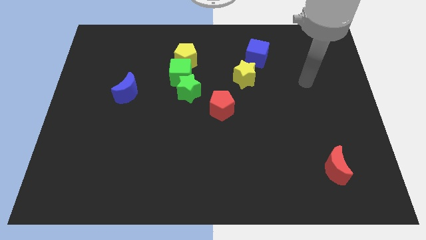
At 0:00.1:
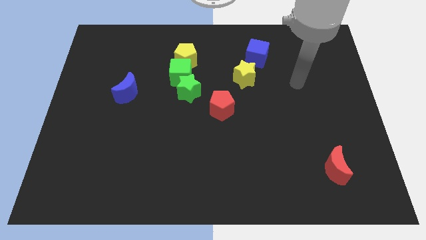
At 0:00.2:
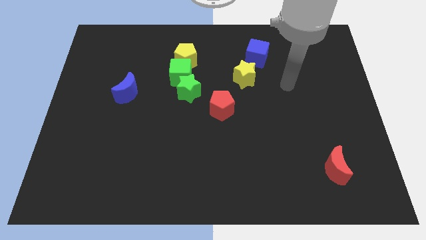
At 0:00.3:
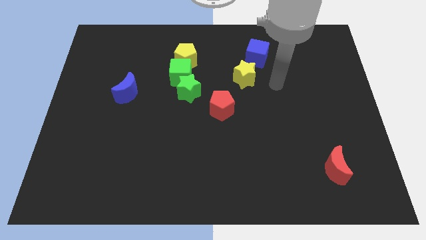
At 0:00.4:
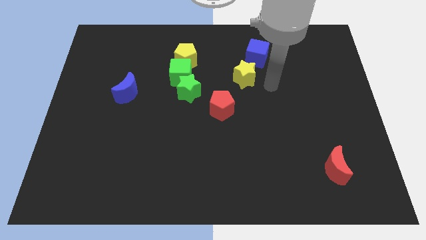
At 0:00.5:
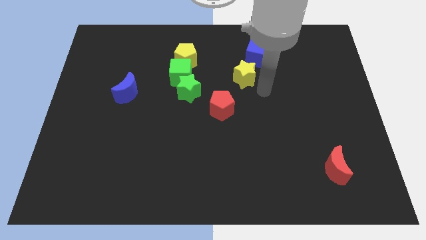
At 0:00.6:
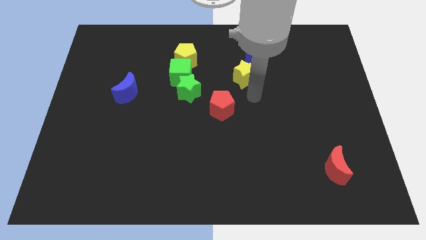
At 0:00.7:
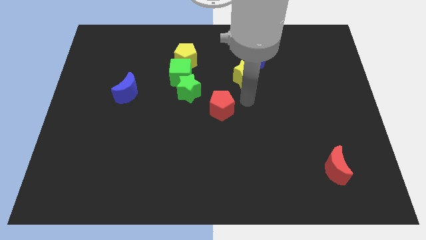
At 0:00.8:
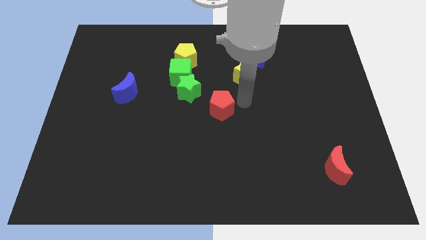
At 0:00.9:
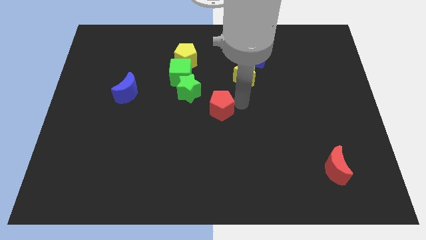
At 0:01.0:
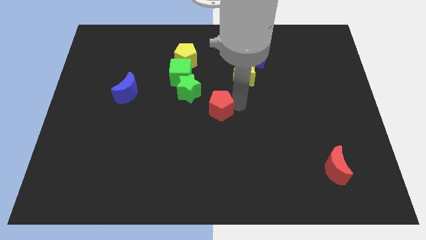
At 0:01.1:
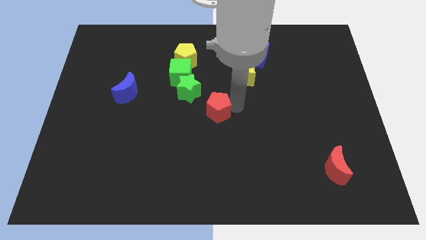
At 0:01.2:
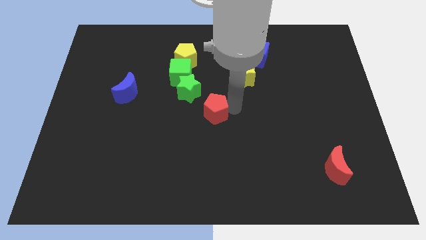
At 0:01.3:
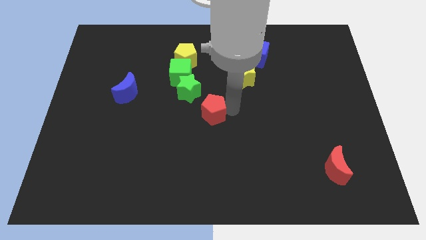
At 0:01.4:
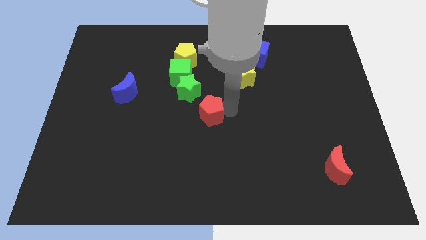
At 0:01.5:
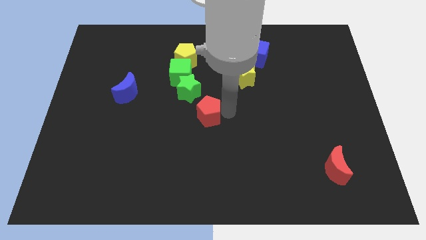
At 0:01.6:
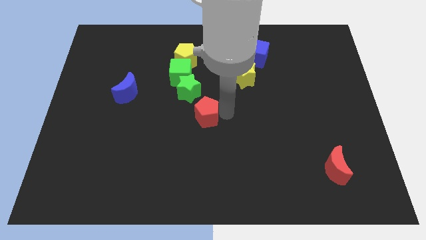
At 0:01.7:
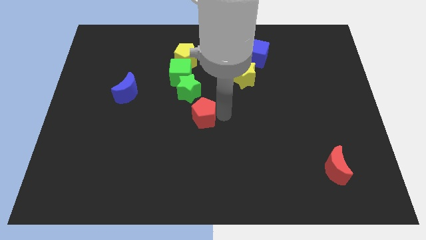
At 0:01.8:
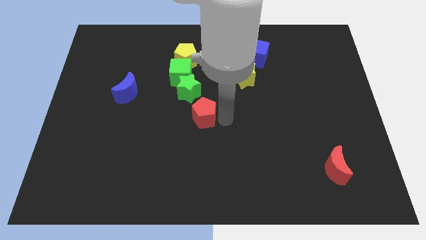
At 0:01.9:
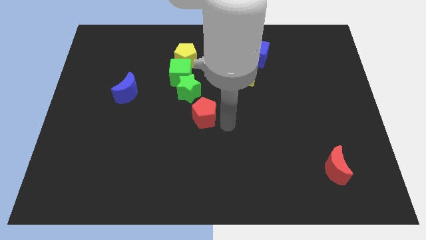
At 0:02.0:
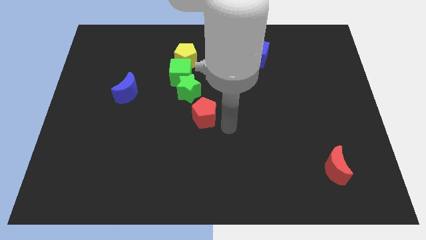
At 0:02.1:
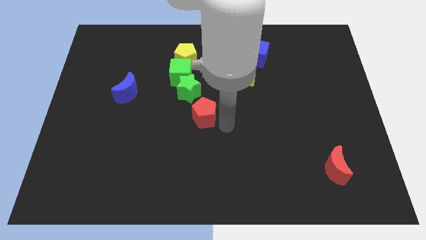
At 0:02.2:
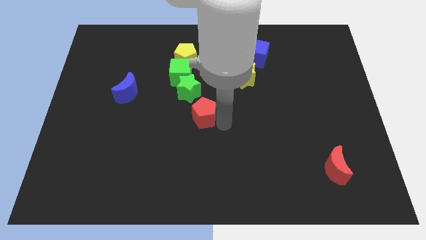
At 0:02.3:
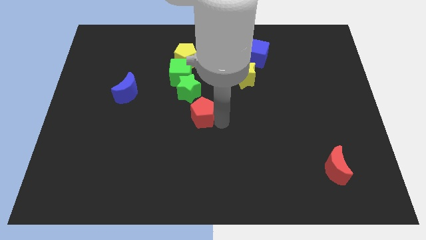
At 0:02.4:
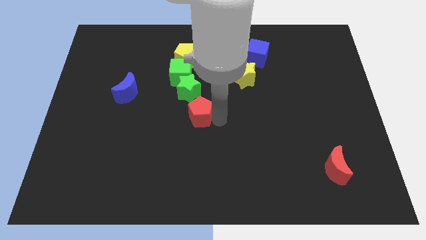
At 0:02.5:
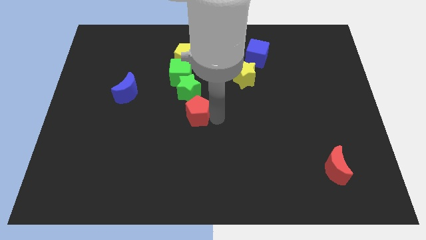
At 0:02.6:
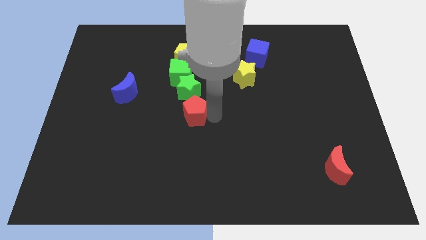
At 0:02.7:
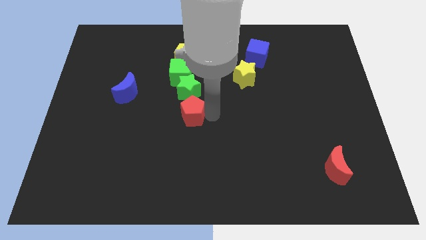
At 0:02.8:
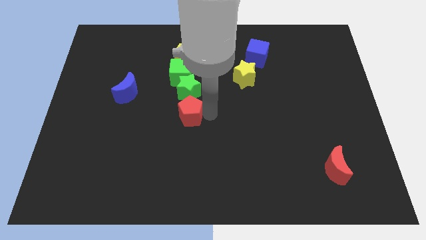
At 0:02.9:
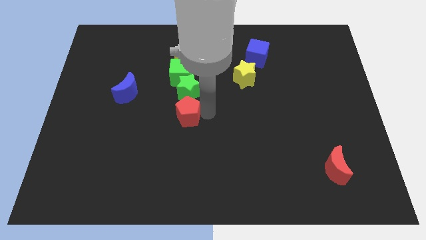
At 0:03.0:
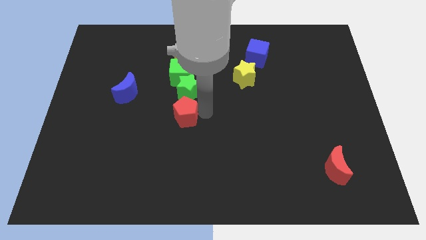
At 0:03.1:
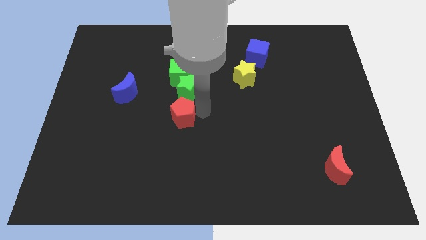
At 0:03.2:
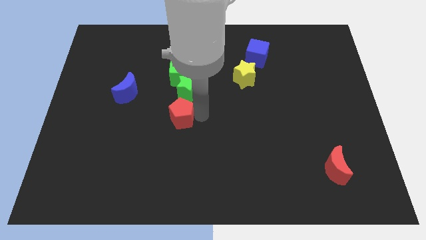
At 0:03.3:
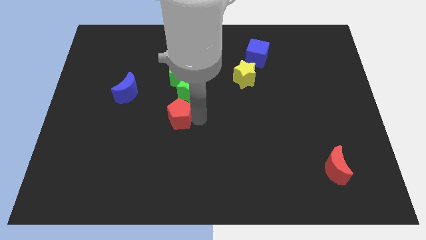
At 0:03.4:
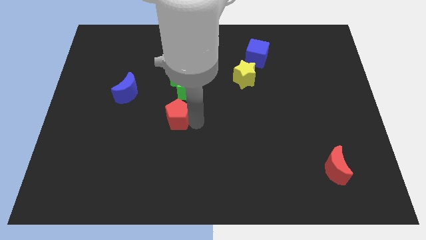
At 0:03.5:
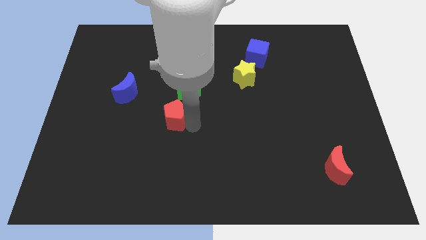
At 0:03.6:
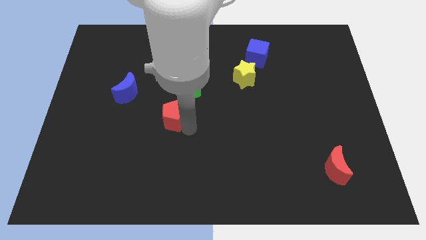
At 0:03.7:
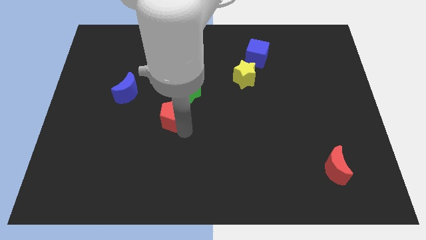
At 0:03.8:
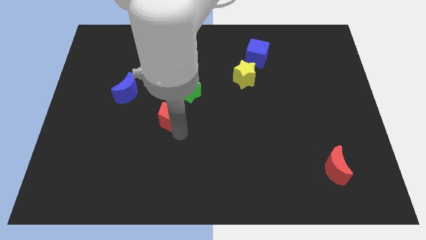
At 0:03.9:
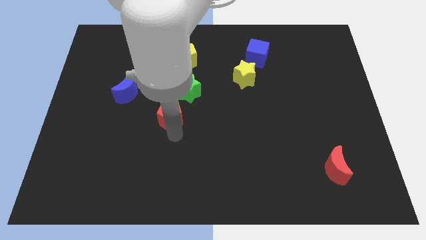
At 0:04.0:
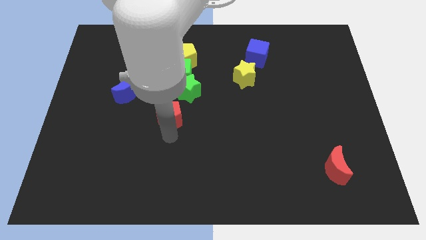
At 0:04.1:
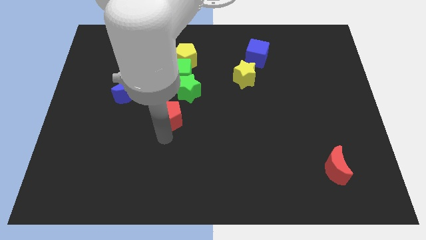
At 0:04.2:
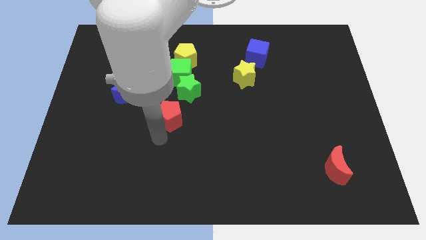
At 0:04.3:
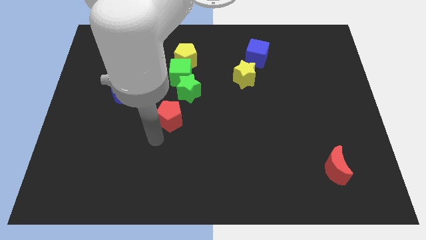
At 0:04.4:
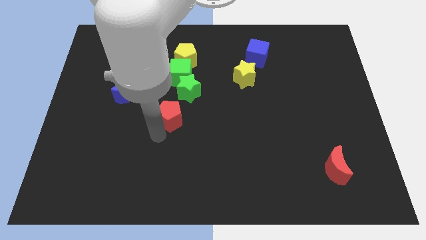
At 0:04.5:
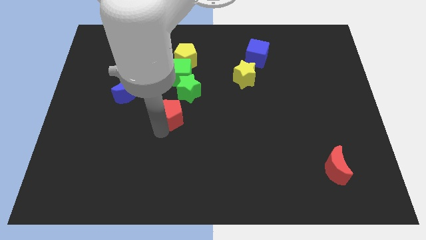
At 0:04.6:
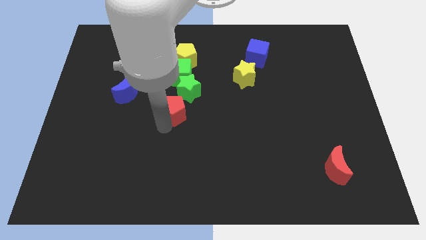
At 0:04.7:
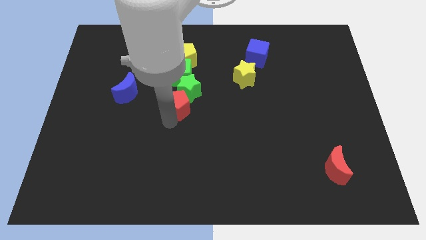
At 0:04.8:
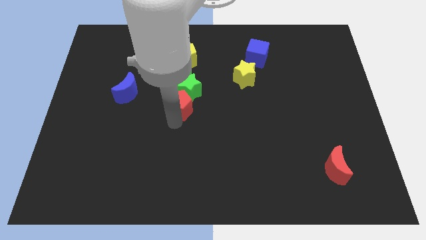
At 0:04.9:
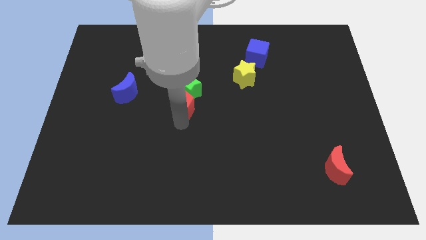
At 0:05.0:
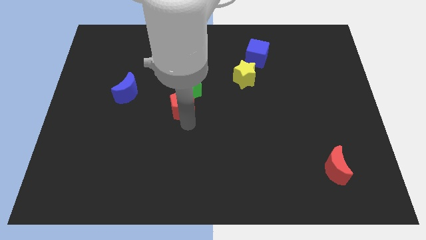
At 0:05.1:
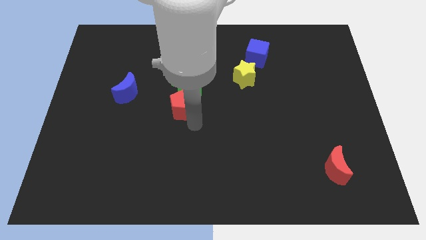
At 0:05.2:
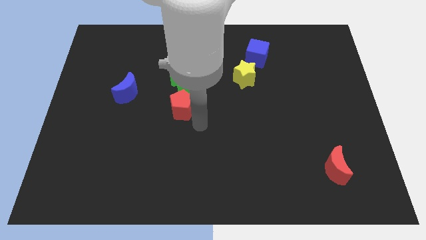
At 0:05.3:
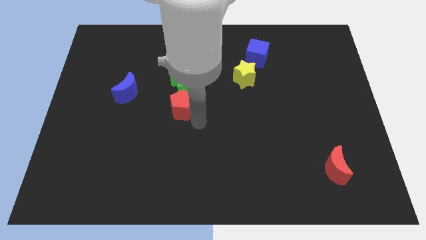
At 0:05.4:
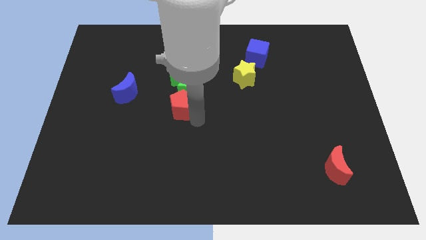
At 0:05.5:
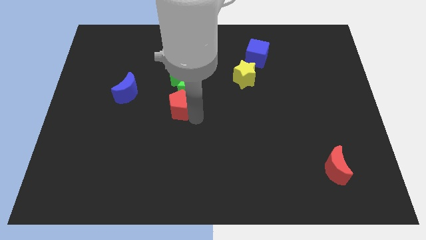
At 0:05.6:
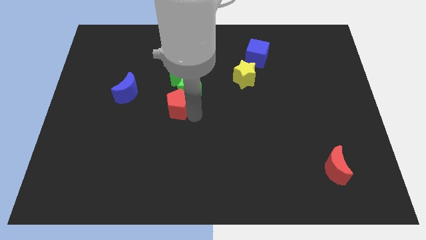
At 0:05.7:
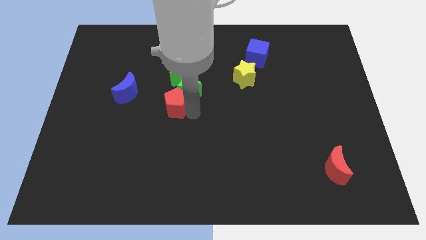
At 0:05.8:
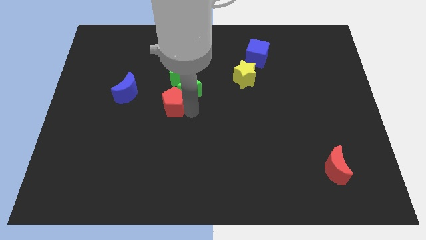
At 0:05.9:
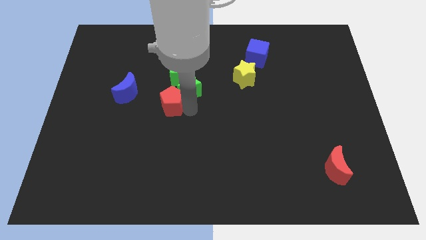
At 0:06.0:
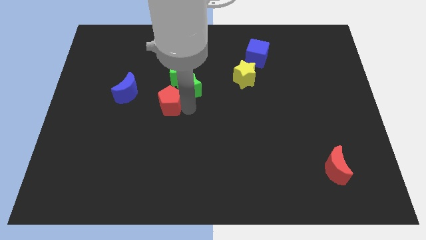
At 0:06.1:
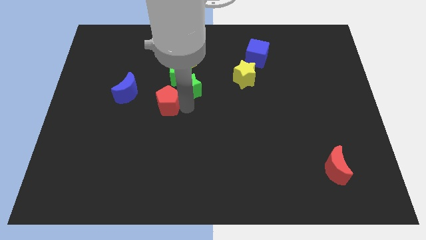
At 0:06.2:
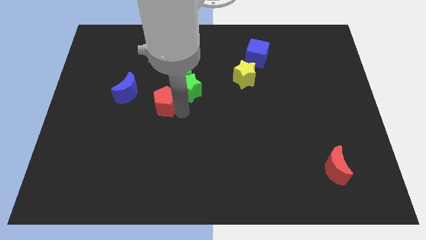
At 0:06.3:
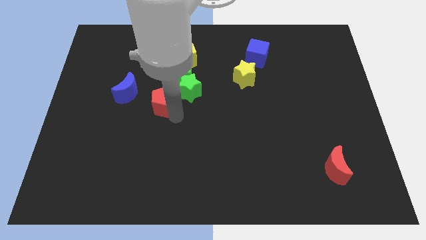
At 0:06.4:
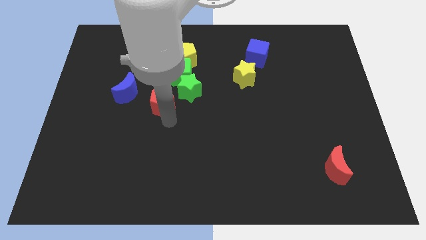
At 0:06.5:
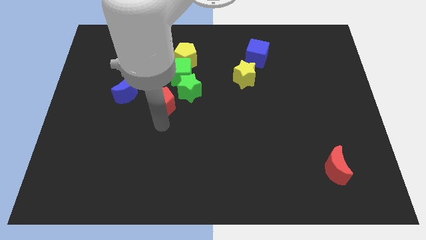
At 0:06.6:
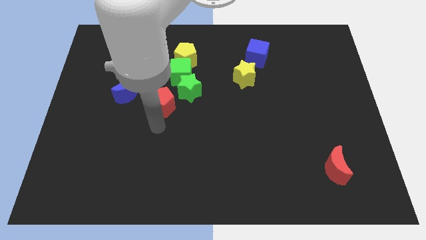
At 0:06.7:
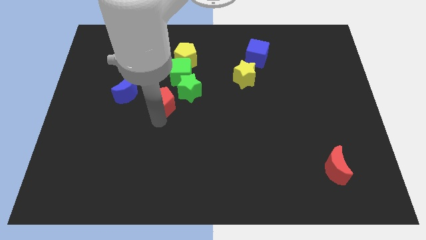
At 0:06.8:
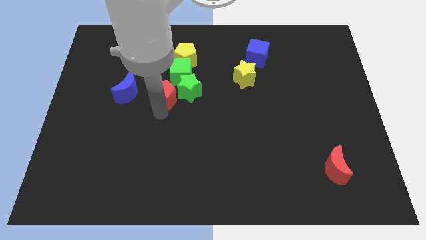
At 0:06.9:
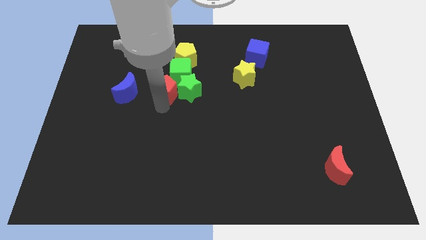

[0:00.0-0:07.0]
put the red pentagon to the top left of the green star

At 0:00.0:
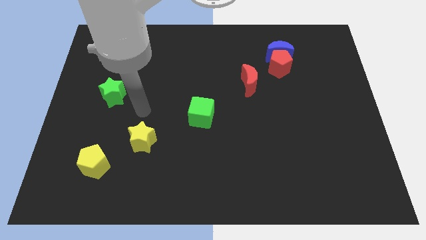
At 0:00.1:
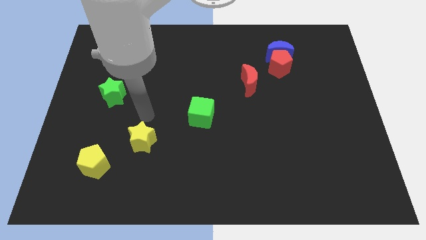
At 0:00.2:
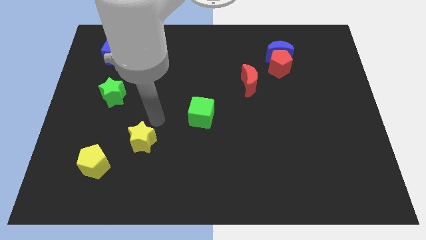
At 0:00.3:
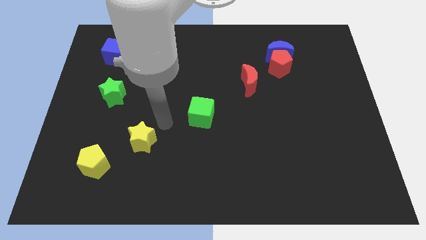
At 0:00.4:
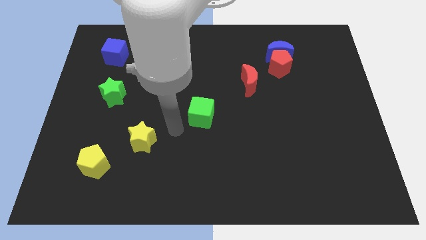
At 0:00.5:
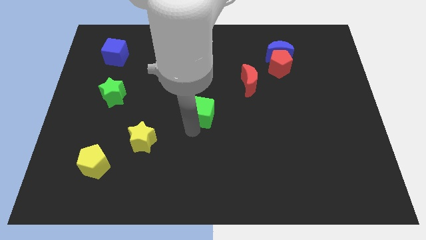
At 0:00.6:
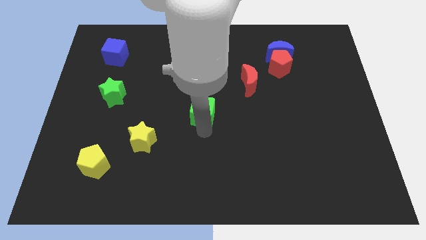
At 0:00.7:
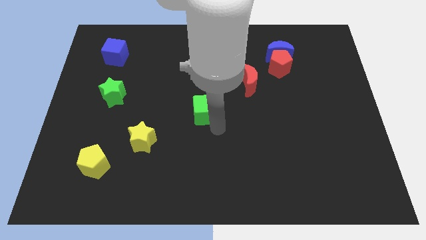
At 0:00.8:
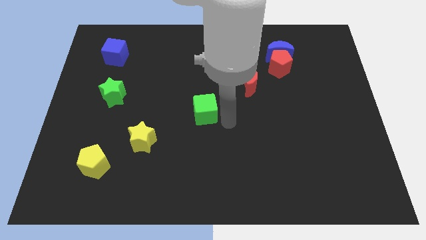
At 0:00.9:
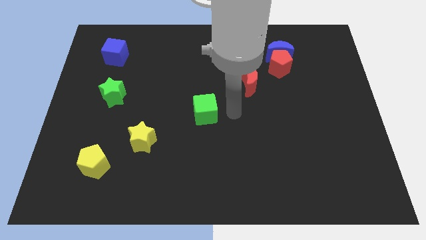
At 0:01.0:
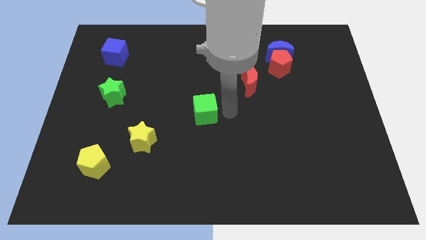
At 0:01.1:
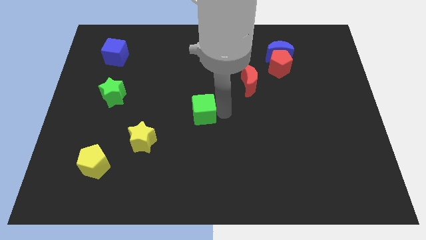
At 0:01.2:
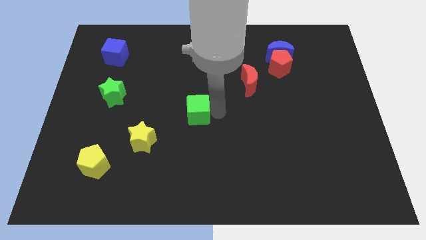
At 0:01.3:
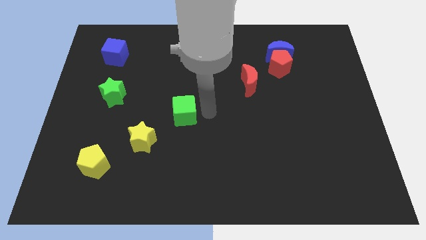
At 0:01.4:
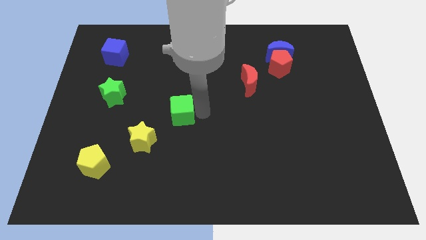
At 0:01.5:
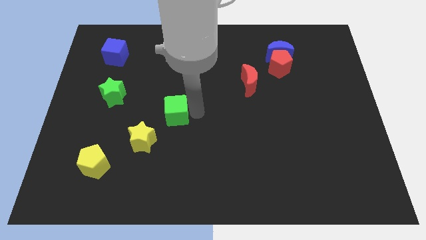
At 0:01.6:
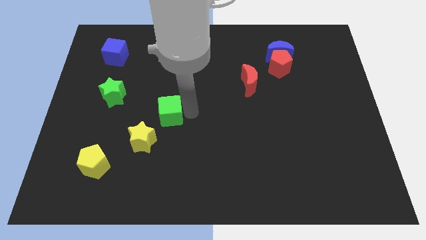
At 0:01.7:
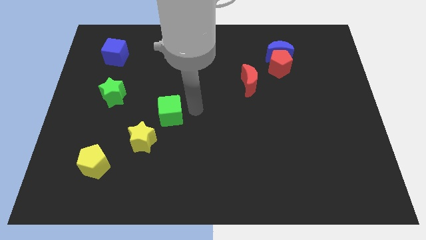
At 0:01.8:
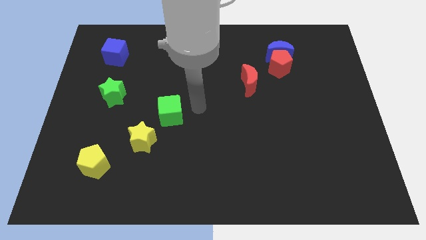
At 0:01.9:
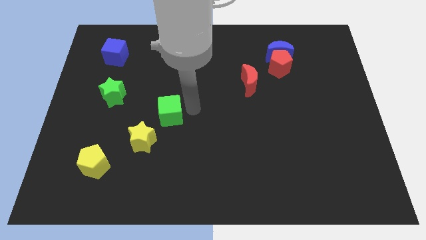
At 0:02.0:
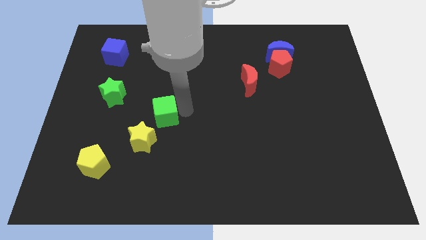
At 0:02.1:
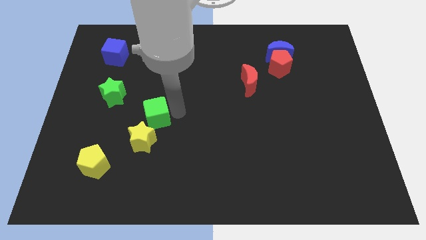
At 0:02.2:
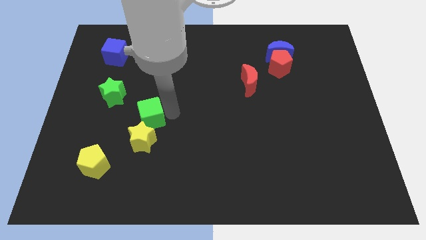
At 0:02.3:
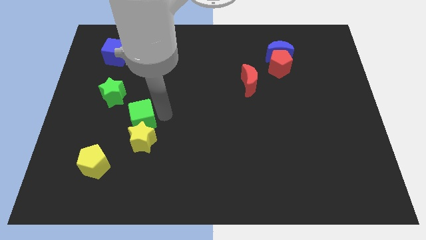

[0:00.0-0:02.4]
move the green cube to the top left of the yellow star
